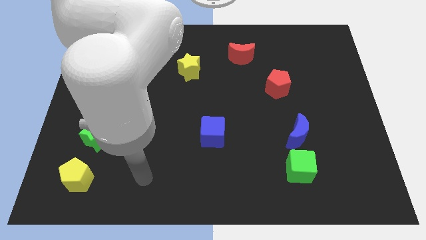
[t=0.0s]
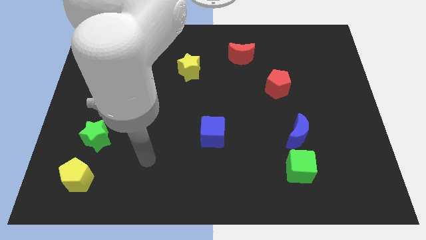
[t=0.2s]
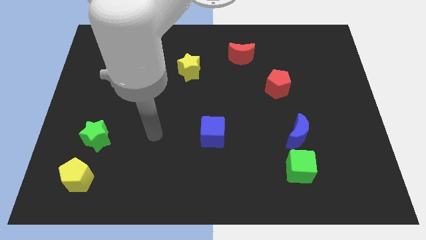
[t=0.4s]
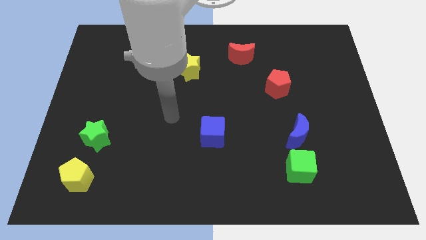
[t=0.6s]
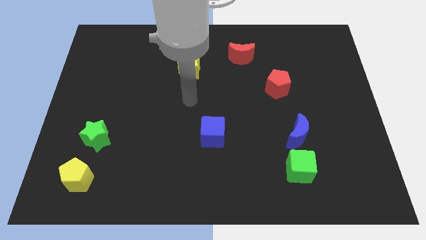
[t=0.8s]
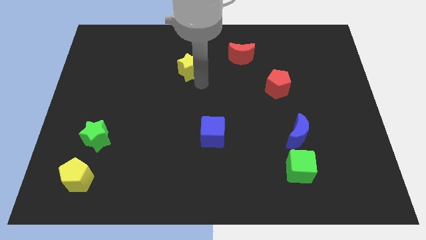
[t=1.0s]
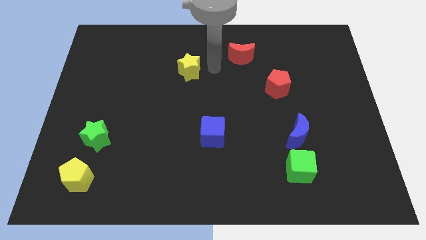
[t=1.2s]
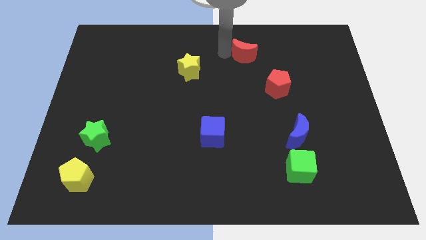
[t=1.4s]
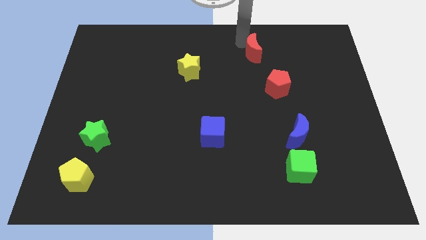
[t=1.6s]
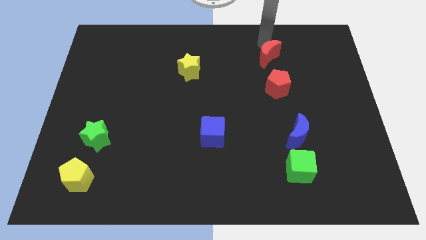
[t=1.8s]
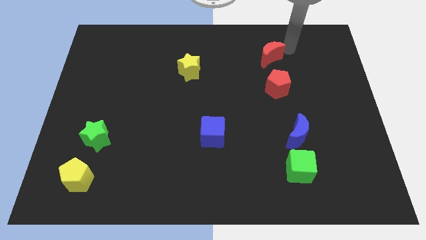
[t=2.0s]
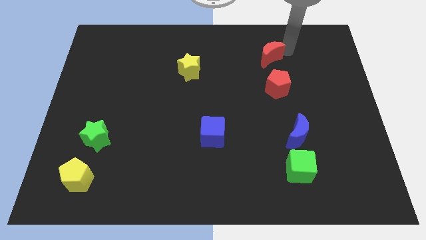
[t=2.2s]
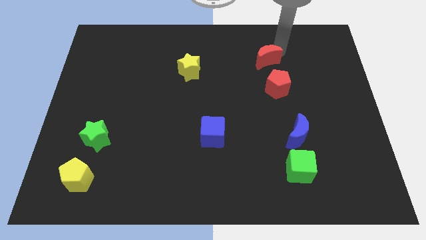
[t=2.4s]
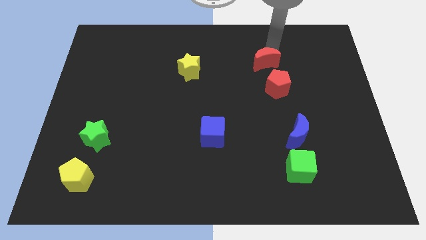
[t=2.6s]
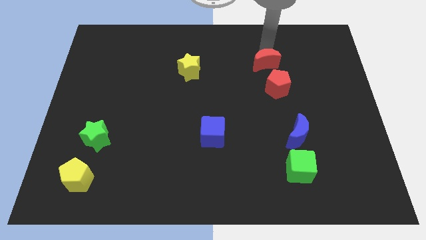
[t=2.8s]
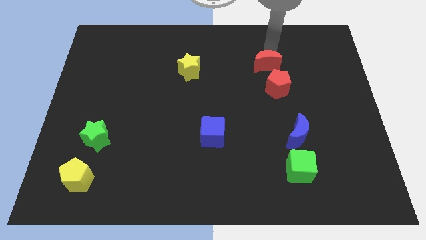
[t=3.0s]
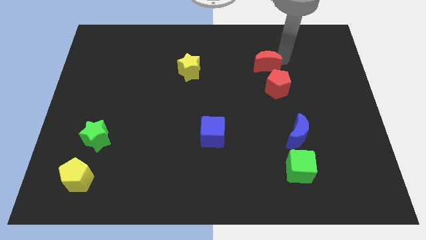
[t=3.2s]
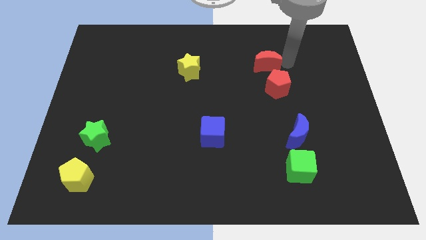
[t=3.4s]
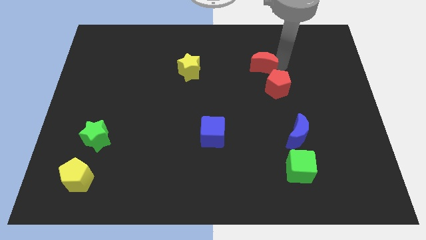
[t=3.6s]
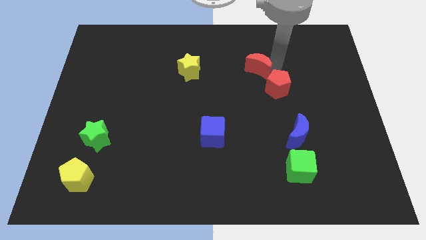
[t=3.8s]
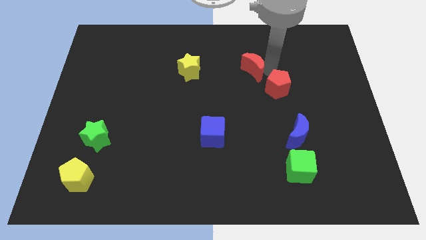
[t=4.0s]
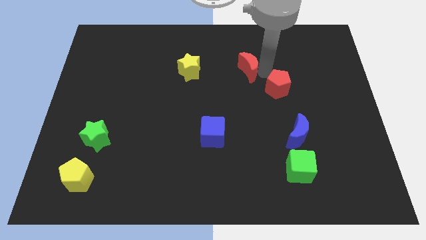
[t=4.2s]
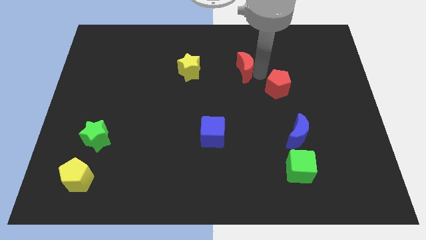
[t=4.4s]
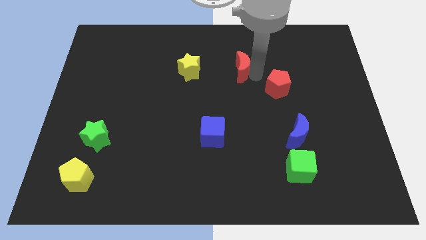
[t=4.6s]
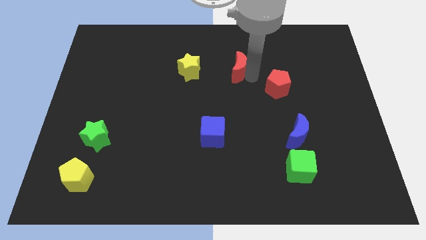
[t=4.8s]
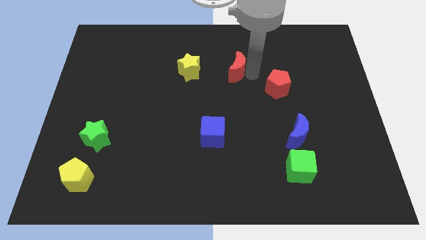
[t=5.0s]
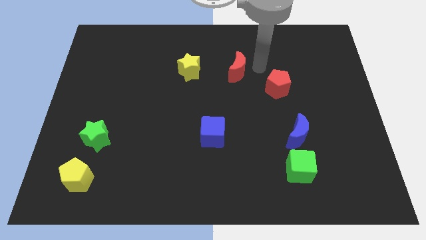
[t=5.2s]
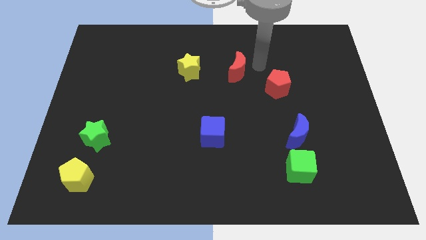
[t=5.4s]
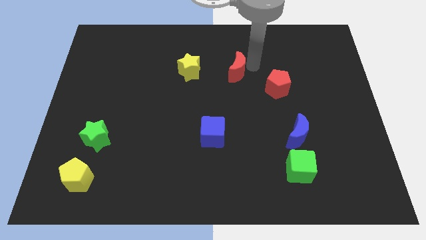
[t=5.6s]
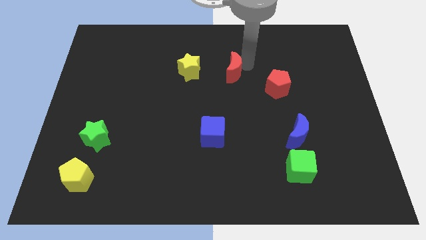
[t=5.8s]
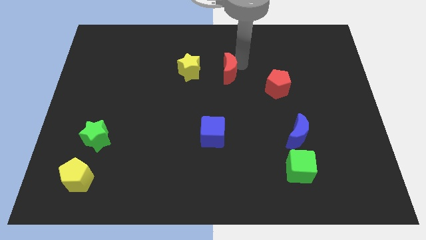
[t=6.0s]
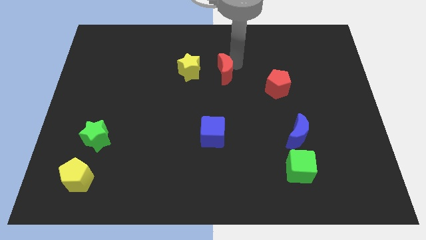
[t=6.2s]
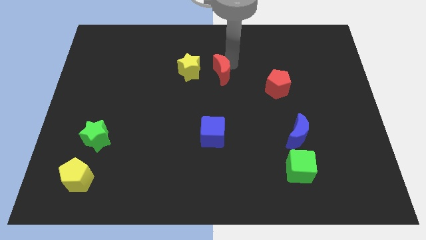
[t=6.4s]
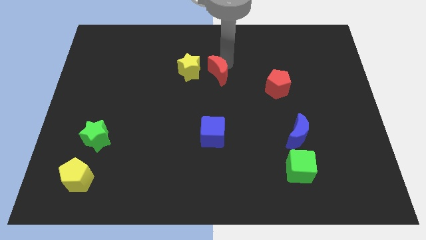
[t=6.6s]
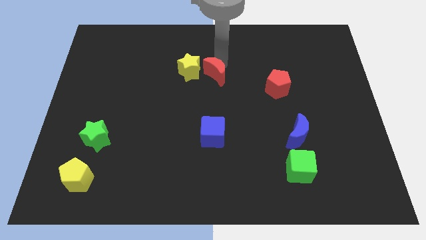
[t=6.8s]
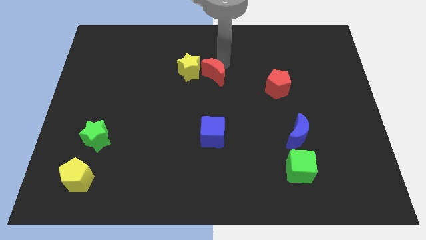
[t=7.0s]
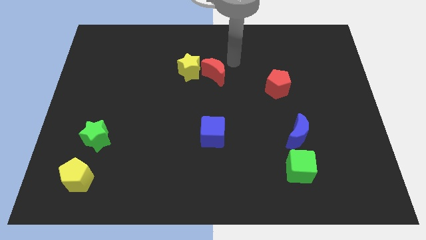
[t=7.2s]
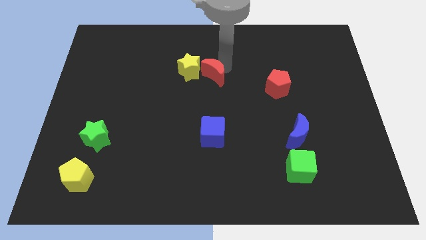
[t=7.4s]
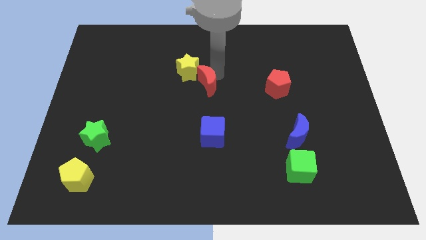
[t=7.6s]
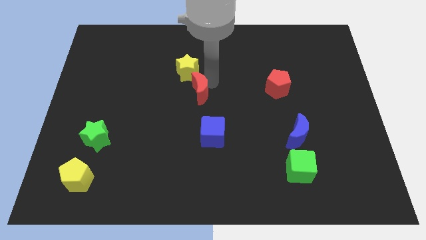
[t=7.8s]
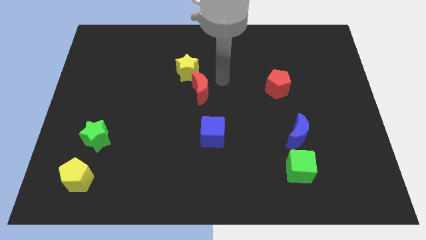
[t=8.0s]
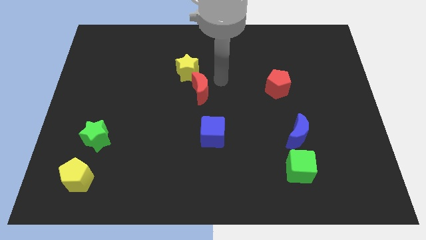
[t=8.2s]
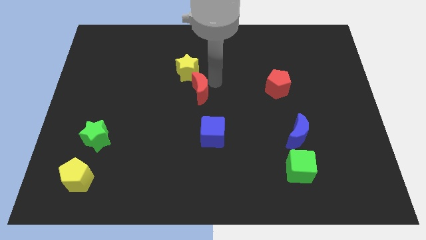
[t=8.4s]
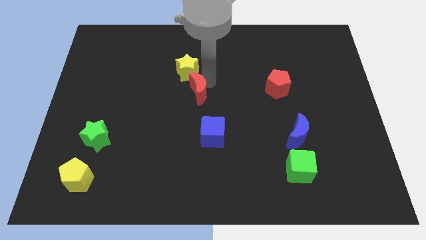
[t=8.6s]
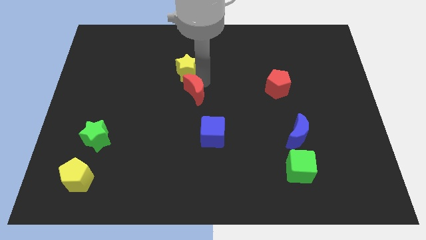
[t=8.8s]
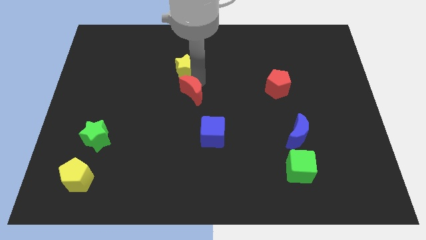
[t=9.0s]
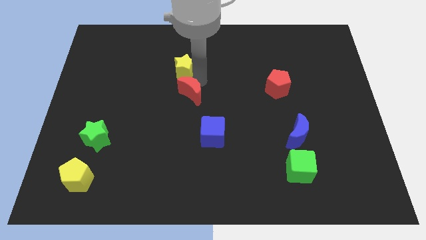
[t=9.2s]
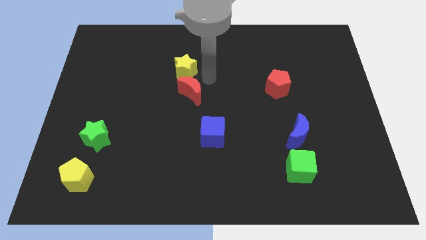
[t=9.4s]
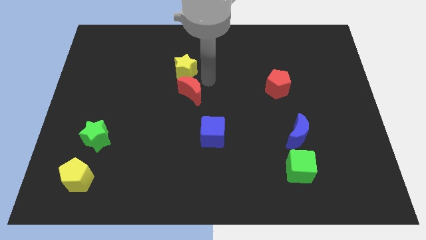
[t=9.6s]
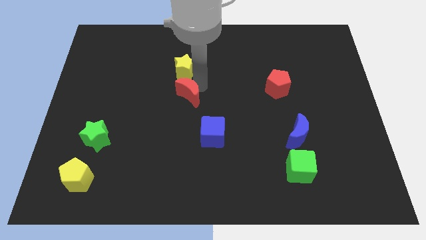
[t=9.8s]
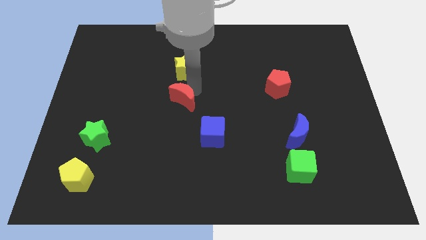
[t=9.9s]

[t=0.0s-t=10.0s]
push the red moon down and to the left diagonally

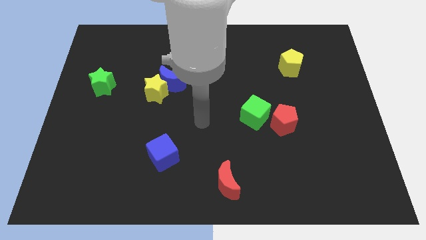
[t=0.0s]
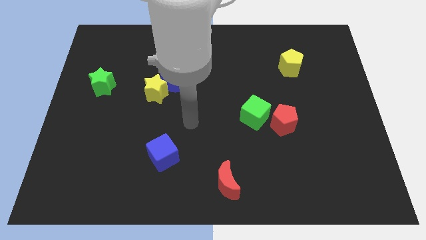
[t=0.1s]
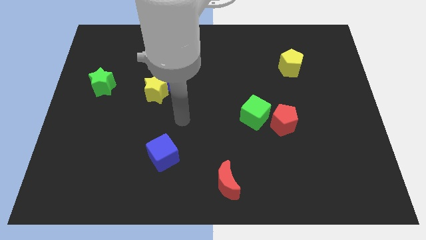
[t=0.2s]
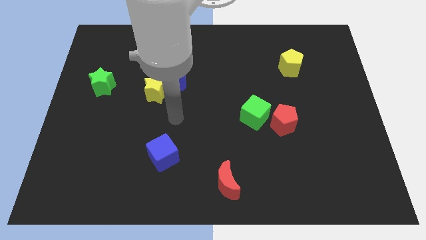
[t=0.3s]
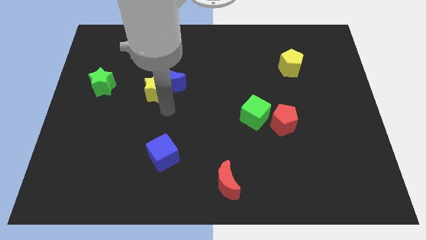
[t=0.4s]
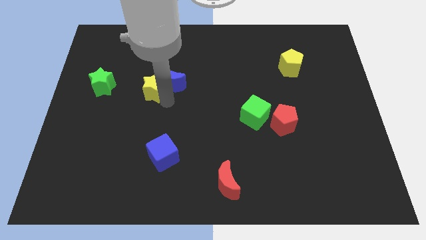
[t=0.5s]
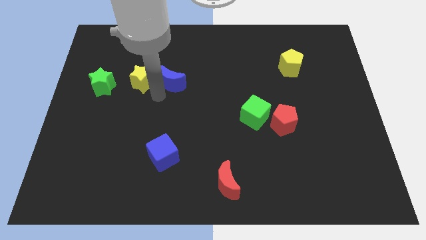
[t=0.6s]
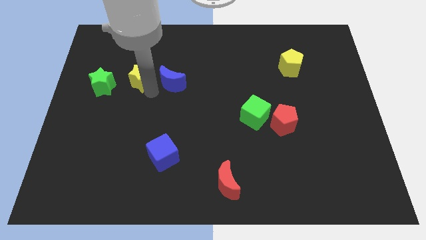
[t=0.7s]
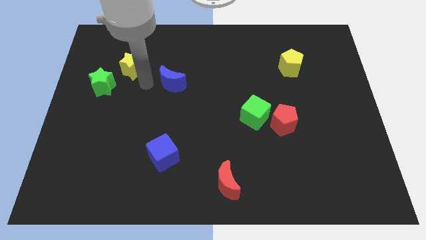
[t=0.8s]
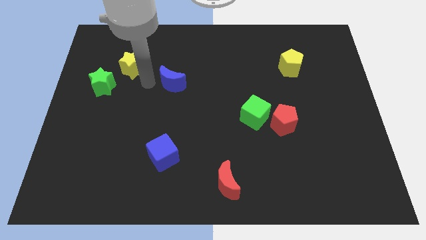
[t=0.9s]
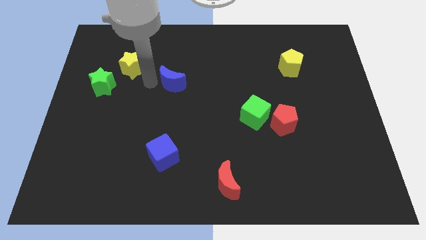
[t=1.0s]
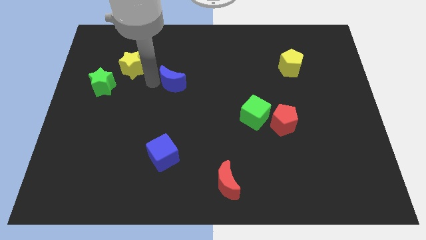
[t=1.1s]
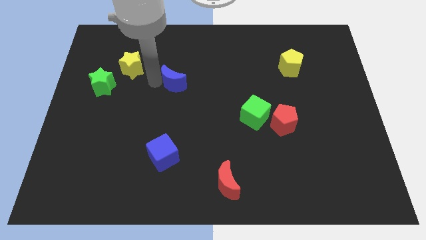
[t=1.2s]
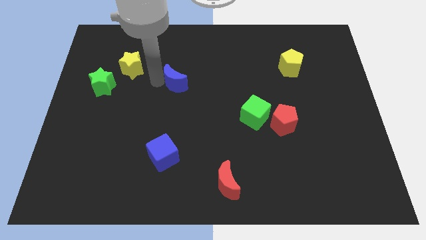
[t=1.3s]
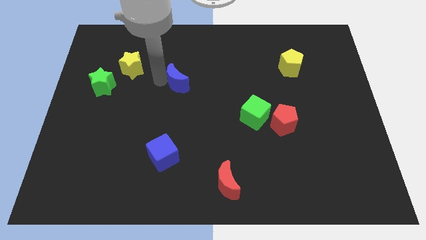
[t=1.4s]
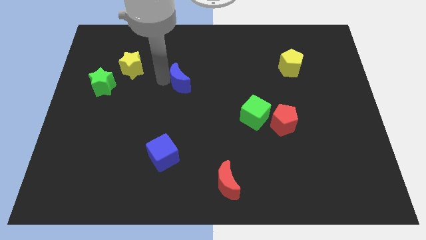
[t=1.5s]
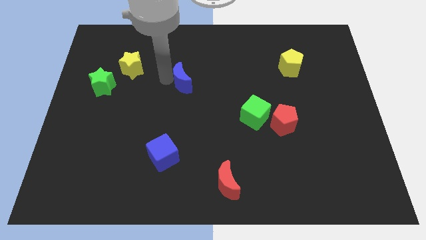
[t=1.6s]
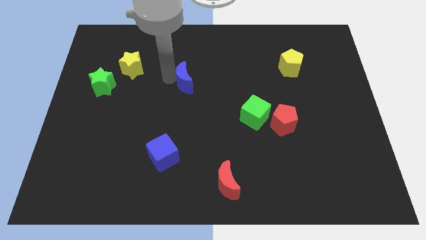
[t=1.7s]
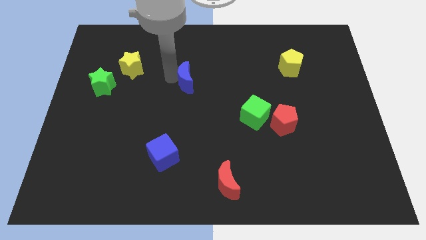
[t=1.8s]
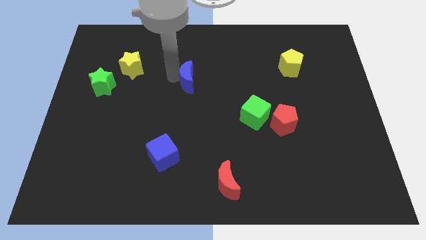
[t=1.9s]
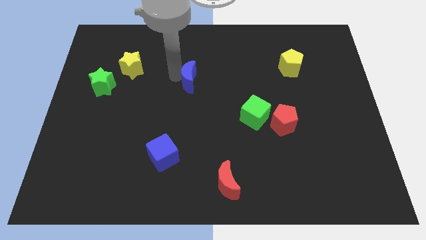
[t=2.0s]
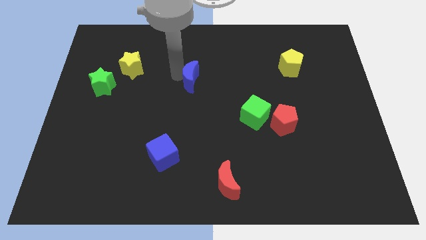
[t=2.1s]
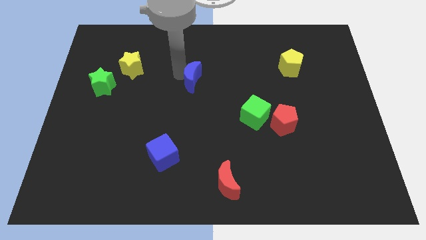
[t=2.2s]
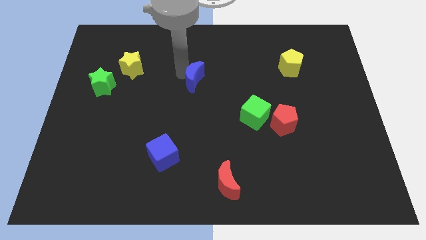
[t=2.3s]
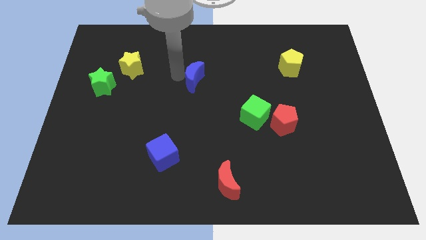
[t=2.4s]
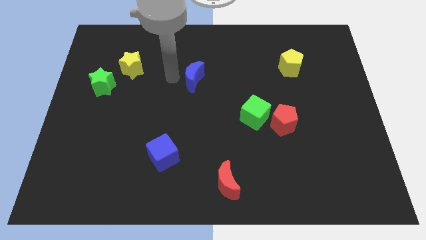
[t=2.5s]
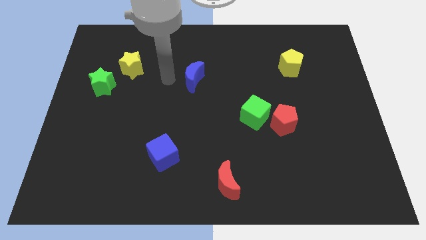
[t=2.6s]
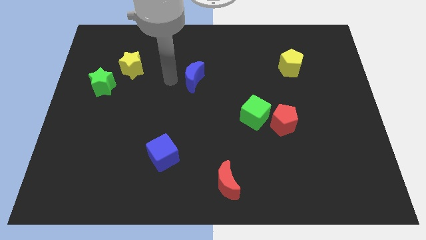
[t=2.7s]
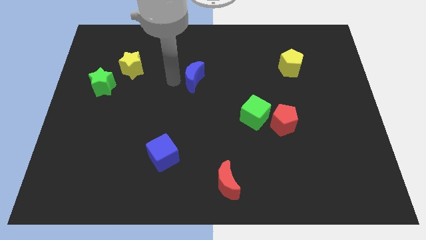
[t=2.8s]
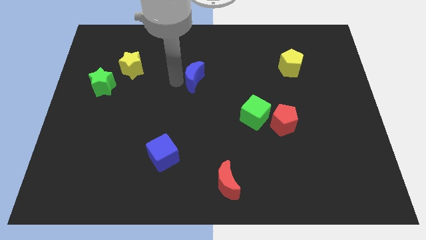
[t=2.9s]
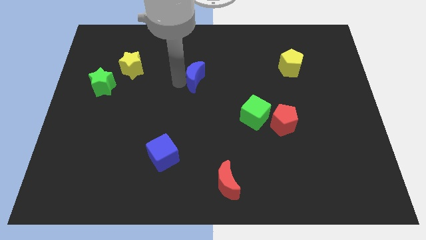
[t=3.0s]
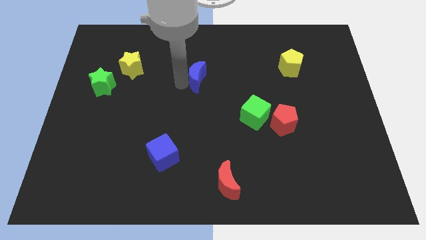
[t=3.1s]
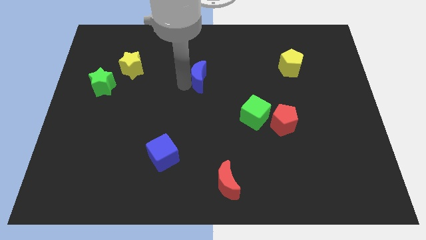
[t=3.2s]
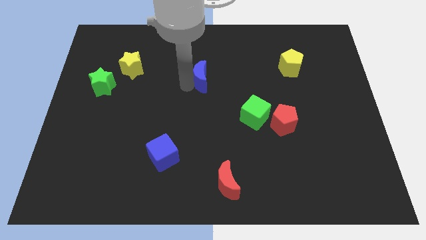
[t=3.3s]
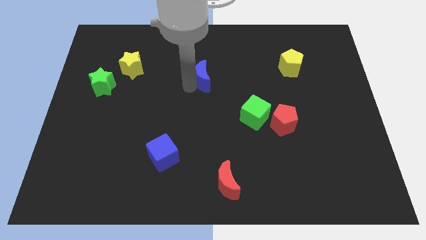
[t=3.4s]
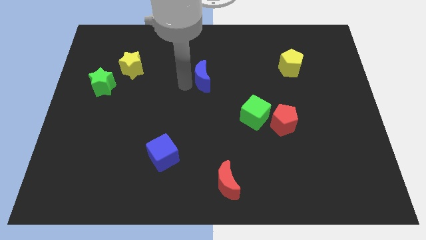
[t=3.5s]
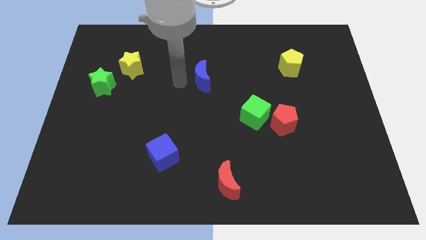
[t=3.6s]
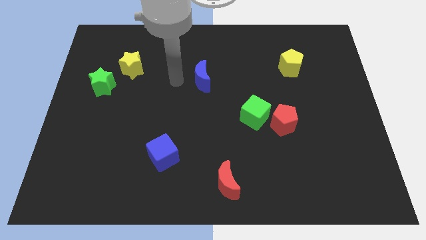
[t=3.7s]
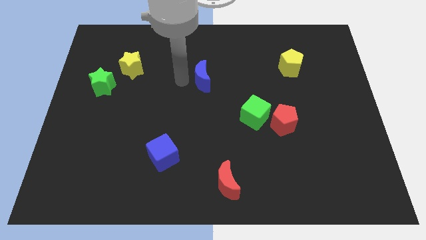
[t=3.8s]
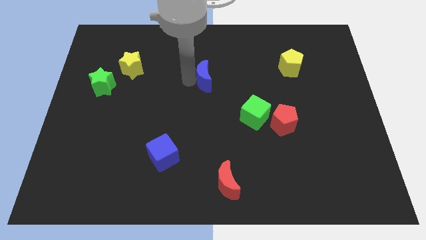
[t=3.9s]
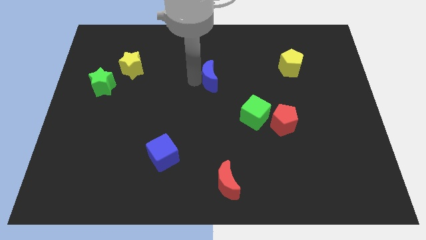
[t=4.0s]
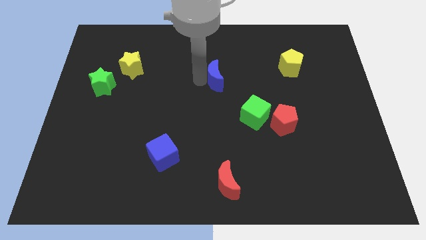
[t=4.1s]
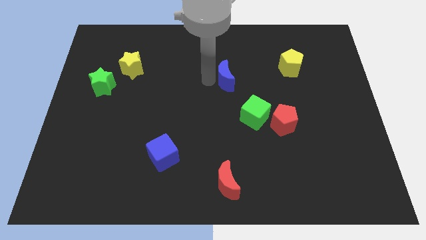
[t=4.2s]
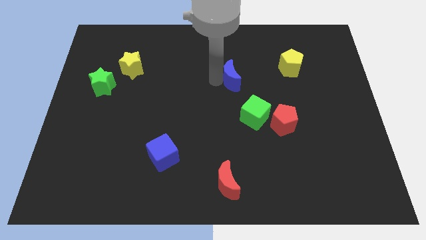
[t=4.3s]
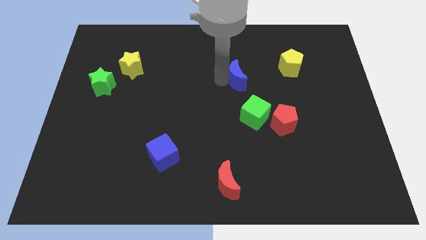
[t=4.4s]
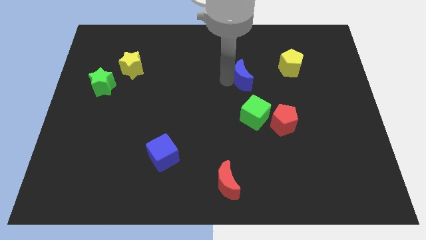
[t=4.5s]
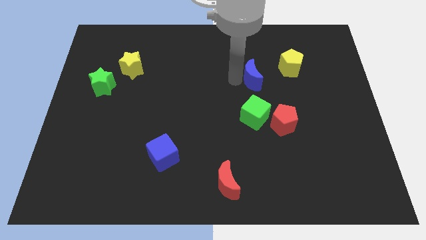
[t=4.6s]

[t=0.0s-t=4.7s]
push the blue moon to the right
